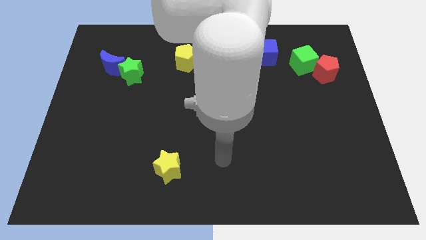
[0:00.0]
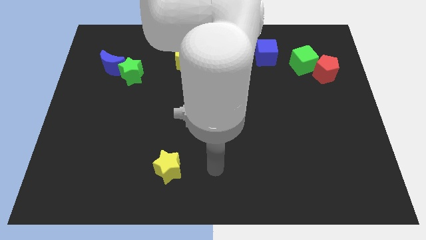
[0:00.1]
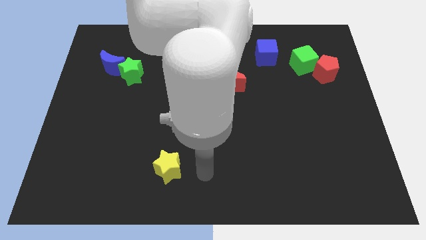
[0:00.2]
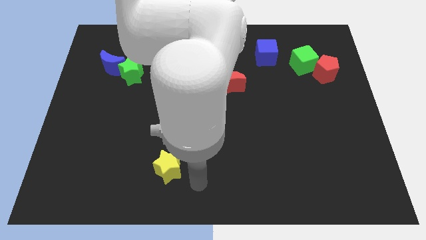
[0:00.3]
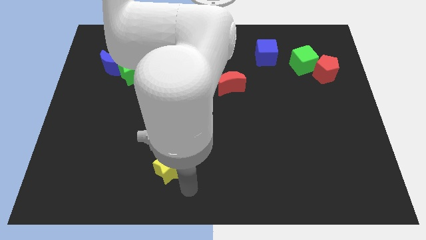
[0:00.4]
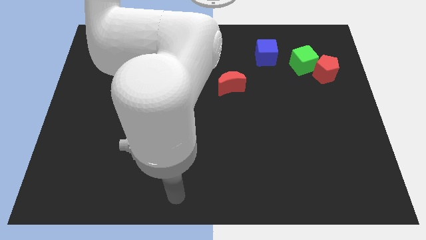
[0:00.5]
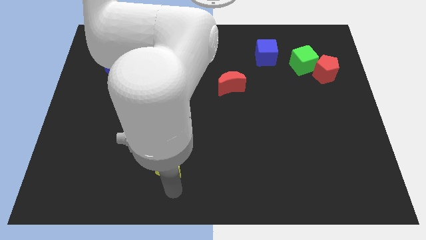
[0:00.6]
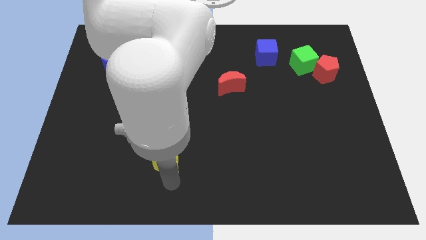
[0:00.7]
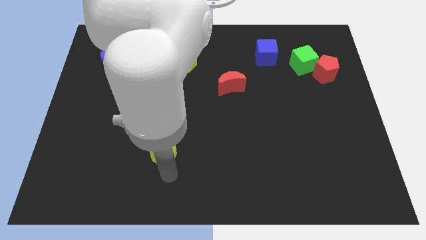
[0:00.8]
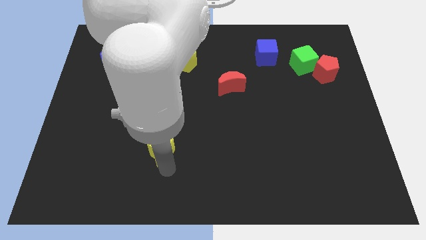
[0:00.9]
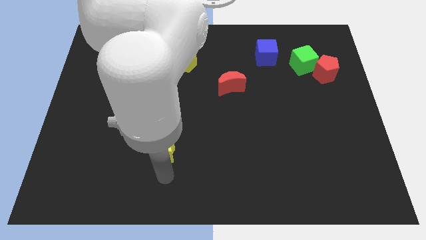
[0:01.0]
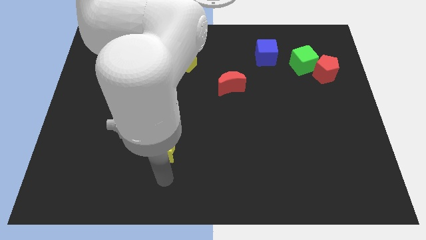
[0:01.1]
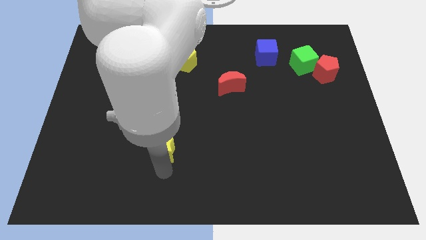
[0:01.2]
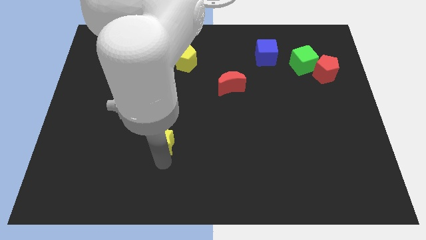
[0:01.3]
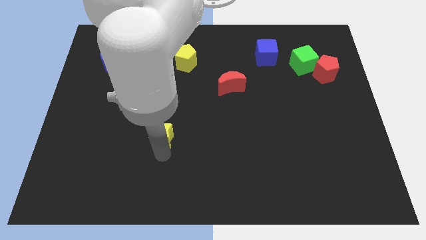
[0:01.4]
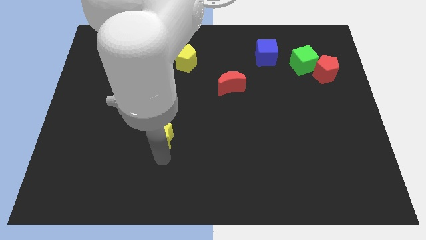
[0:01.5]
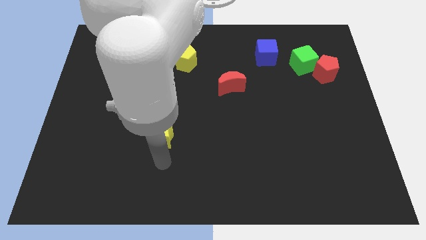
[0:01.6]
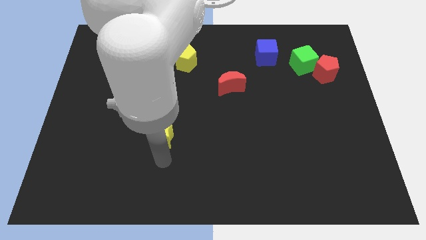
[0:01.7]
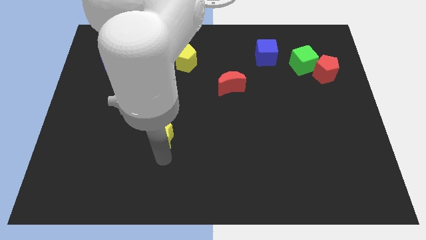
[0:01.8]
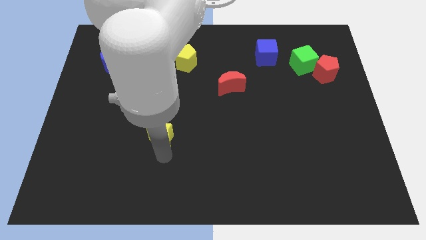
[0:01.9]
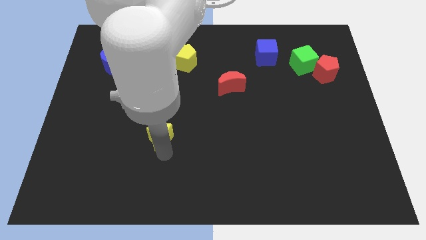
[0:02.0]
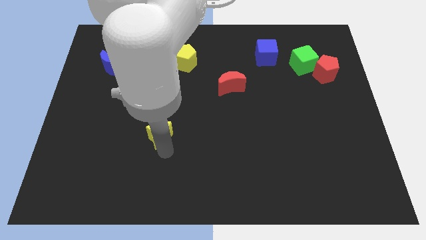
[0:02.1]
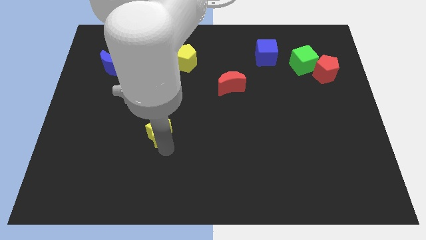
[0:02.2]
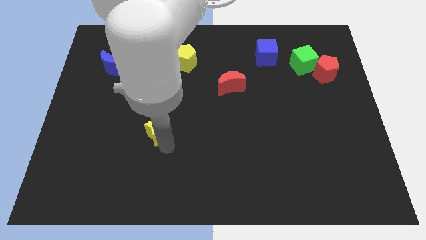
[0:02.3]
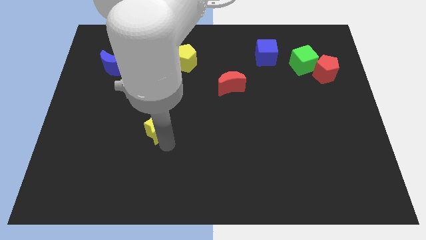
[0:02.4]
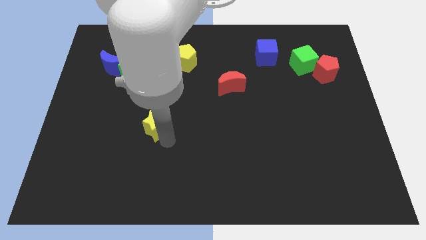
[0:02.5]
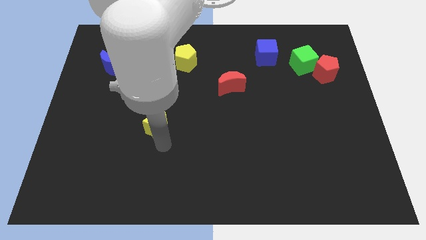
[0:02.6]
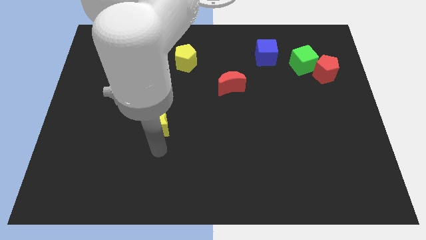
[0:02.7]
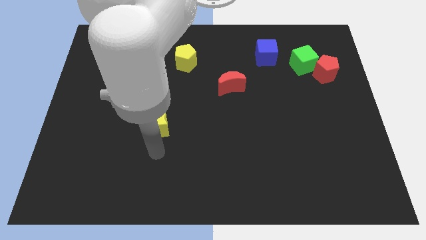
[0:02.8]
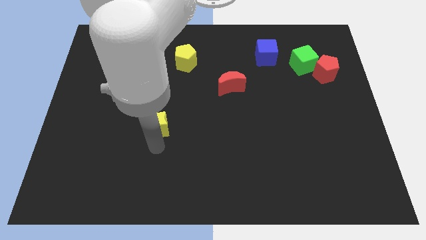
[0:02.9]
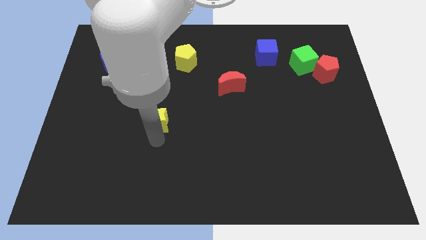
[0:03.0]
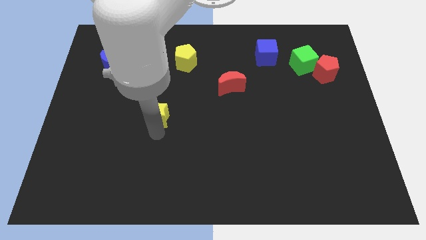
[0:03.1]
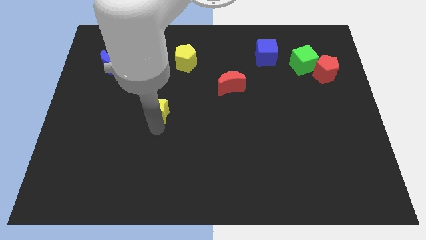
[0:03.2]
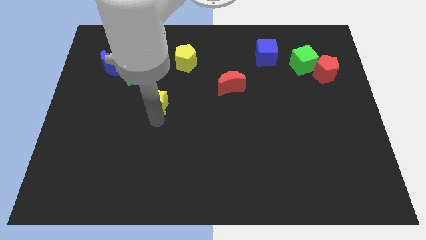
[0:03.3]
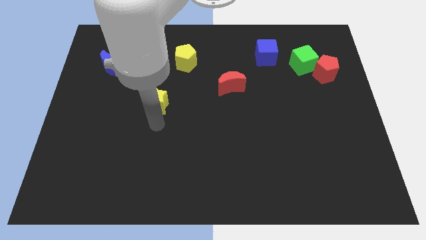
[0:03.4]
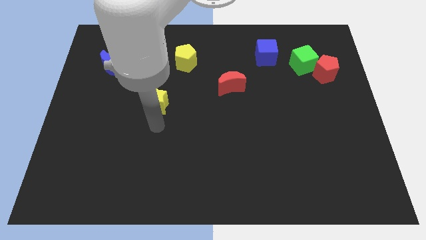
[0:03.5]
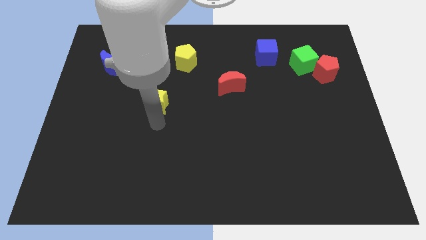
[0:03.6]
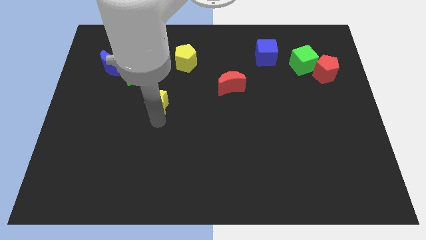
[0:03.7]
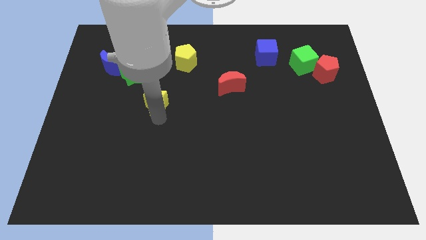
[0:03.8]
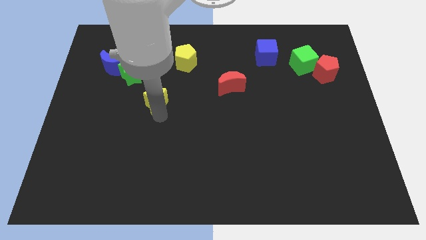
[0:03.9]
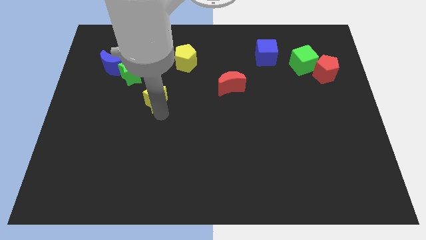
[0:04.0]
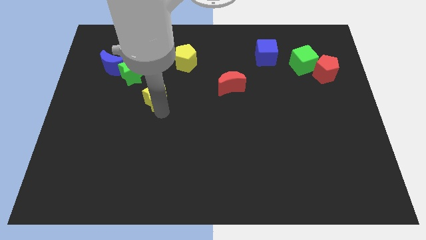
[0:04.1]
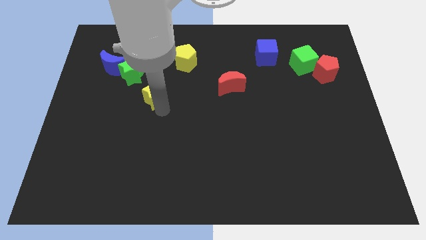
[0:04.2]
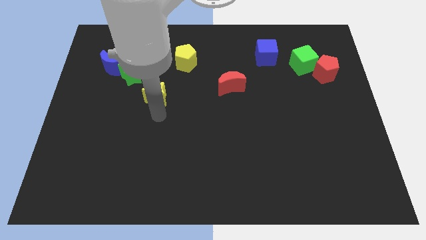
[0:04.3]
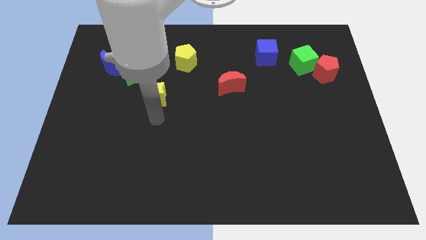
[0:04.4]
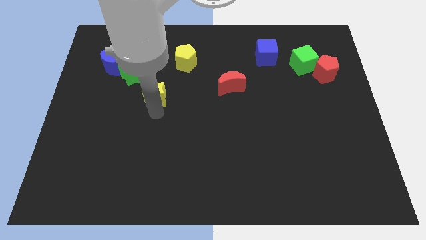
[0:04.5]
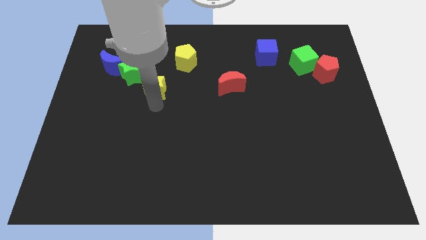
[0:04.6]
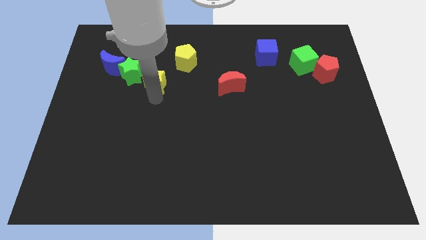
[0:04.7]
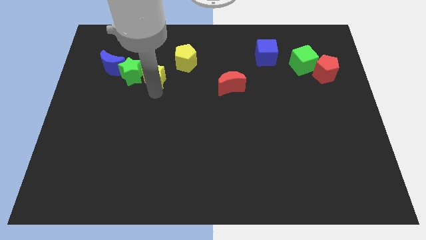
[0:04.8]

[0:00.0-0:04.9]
move the yellow star right of the blue moon

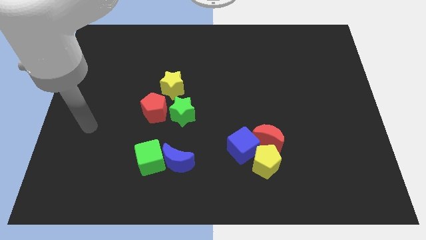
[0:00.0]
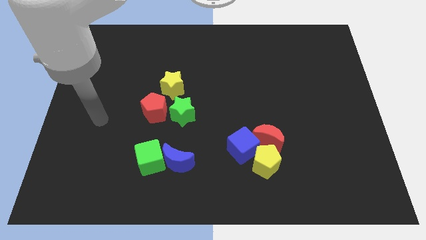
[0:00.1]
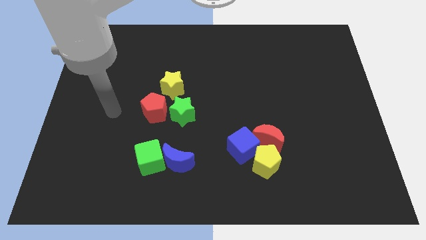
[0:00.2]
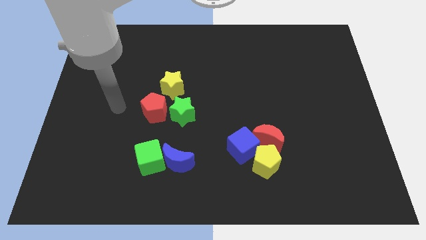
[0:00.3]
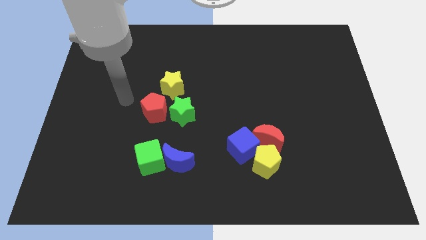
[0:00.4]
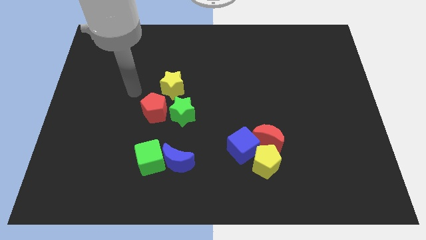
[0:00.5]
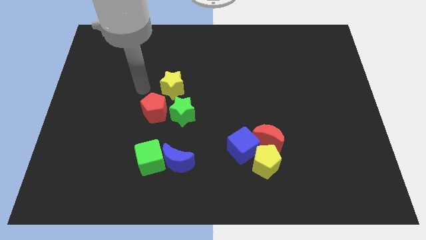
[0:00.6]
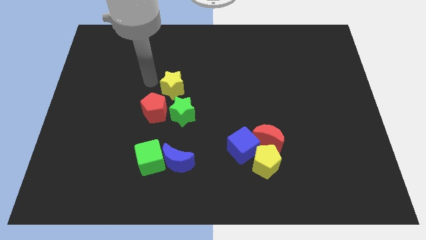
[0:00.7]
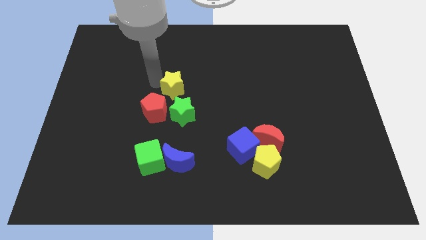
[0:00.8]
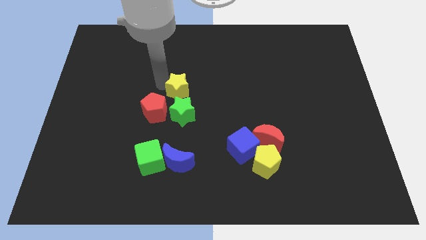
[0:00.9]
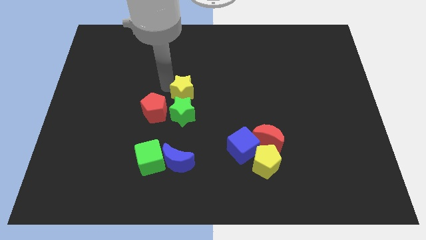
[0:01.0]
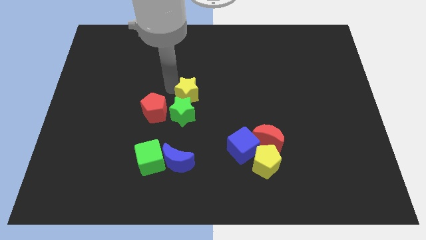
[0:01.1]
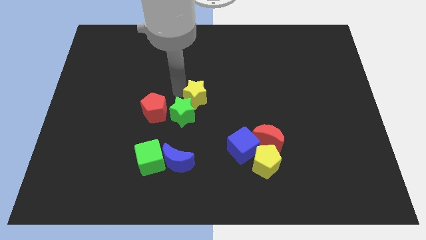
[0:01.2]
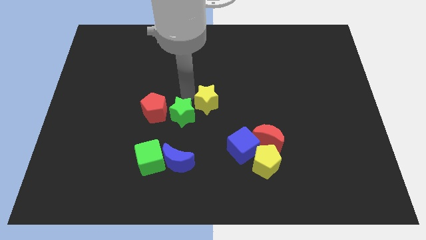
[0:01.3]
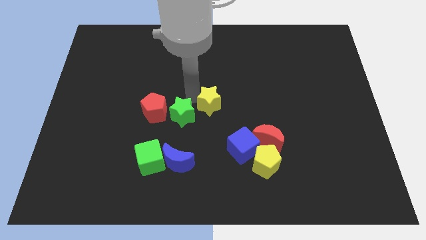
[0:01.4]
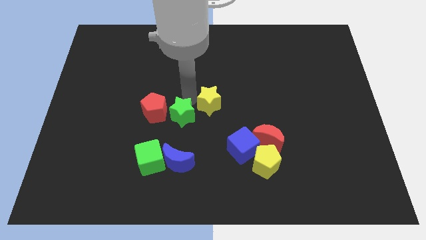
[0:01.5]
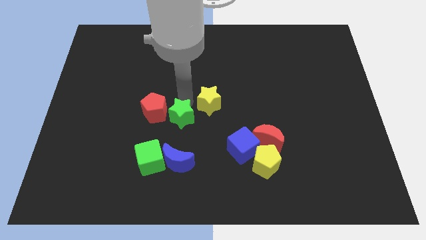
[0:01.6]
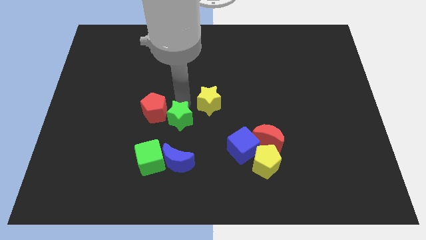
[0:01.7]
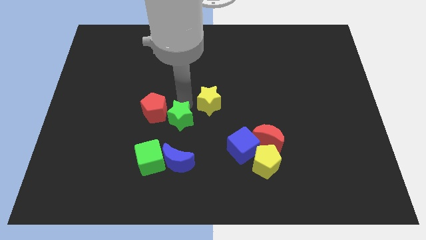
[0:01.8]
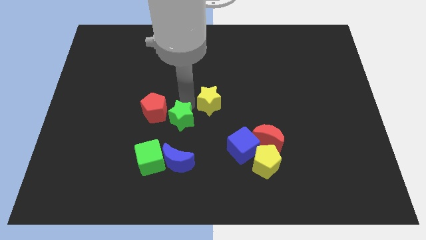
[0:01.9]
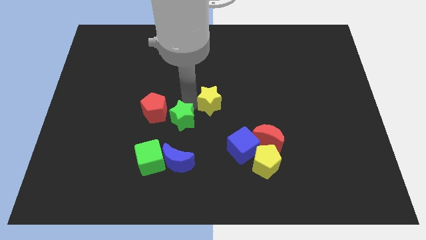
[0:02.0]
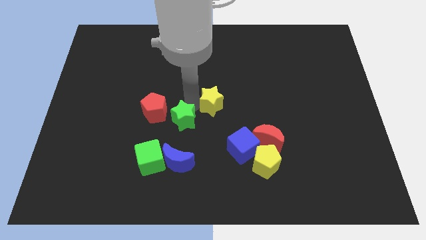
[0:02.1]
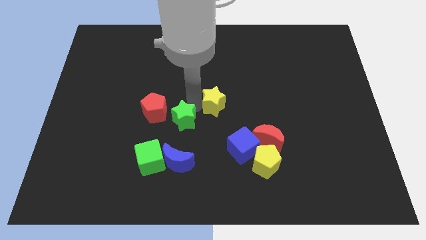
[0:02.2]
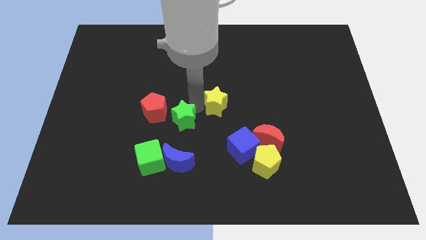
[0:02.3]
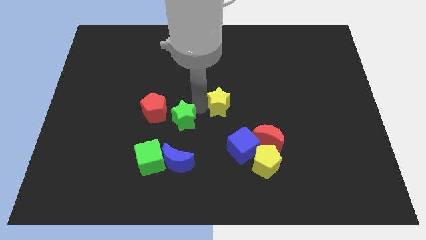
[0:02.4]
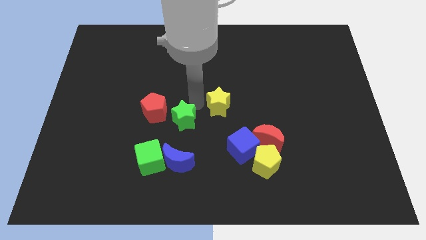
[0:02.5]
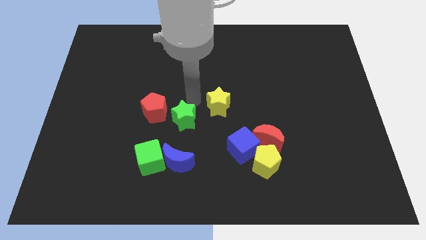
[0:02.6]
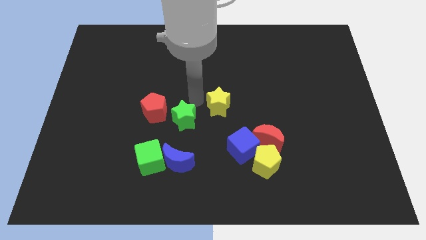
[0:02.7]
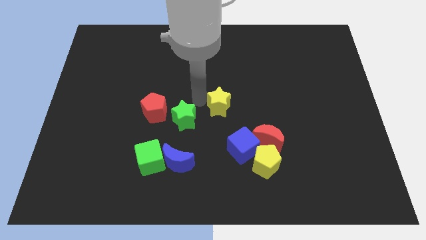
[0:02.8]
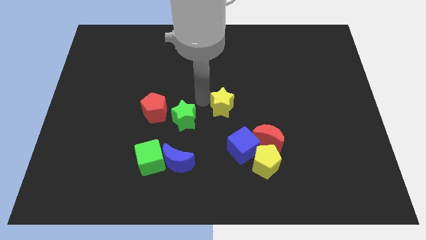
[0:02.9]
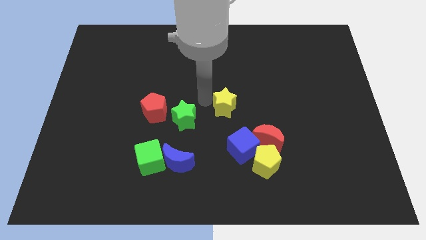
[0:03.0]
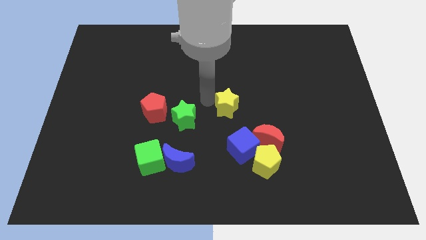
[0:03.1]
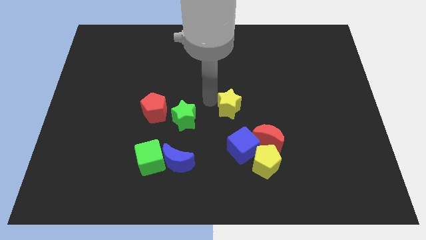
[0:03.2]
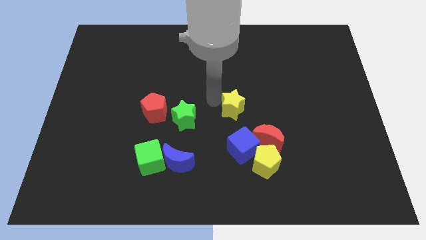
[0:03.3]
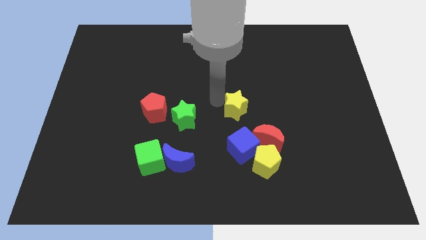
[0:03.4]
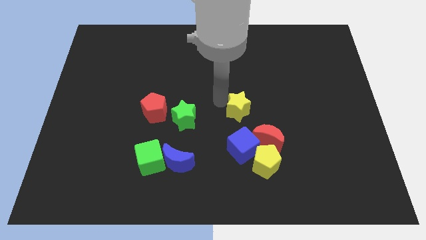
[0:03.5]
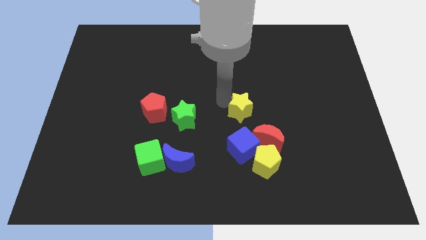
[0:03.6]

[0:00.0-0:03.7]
move the yellow star above the yellow pentagon
